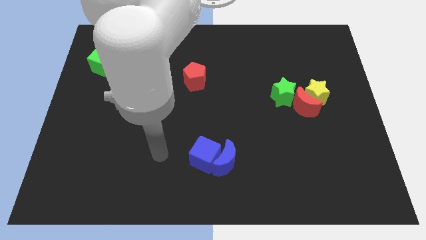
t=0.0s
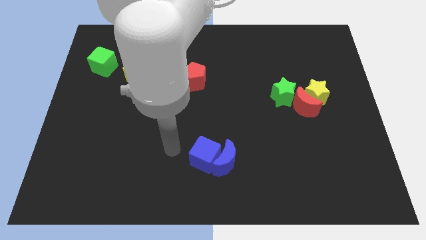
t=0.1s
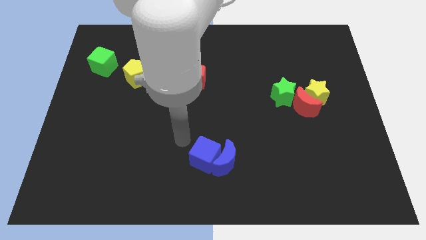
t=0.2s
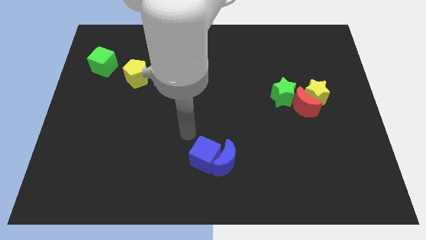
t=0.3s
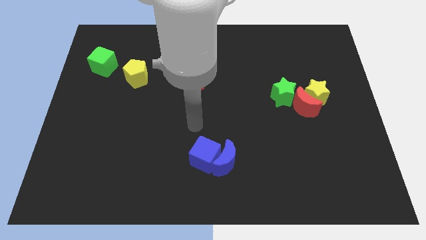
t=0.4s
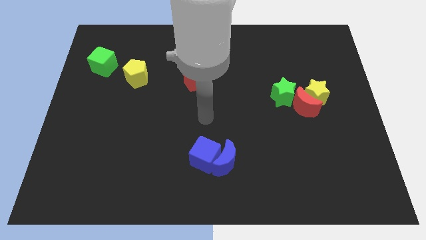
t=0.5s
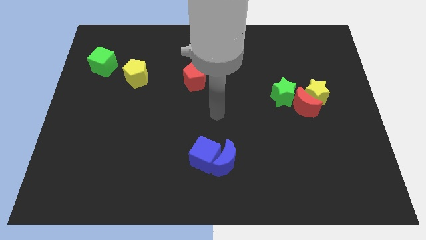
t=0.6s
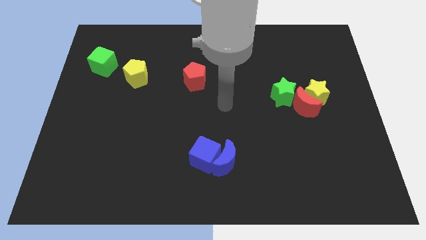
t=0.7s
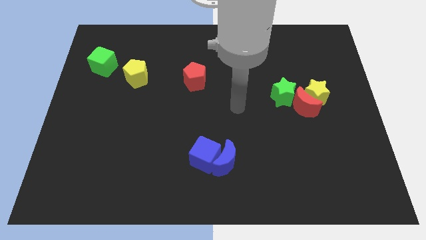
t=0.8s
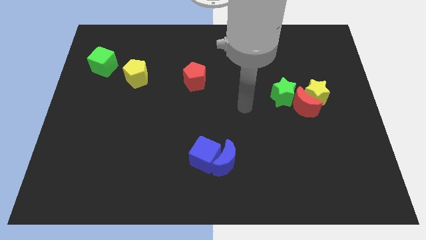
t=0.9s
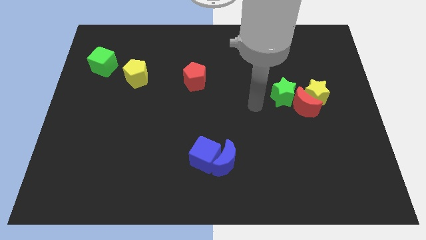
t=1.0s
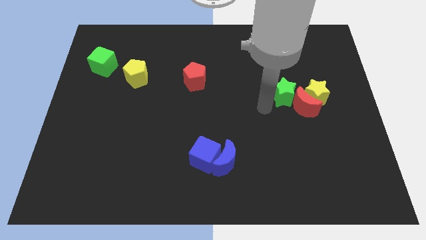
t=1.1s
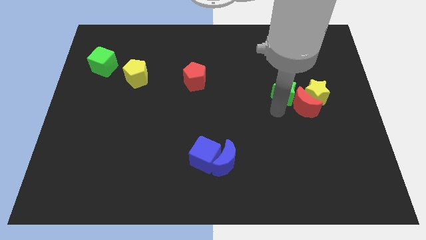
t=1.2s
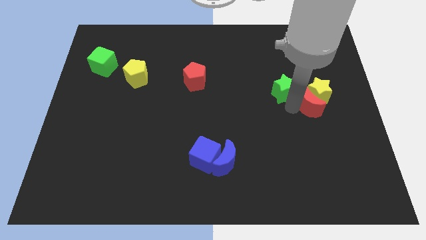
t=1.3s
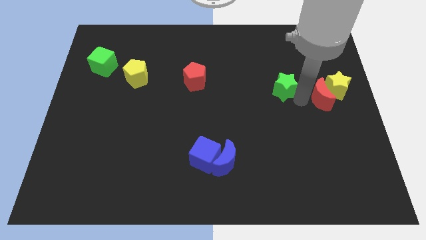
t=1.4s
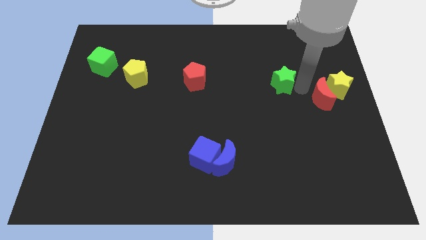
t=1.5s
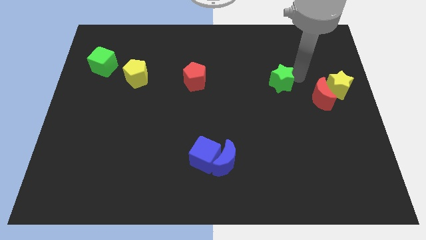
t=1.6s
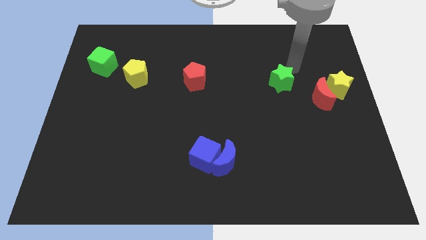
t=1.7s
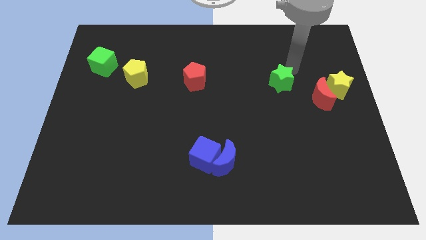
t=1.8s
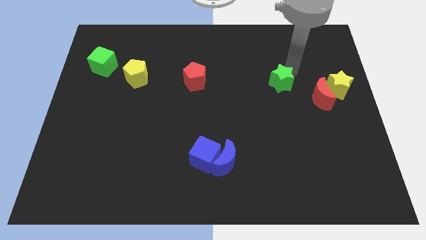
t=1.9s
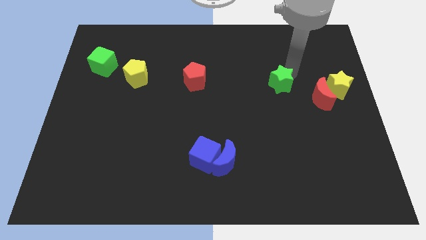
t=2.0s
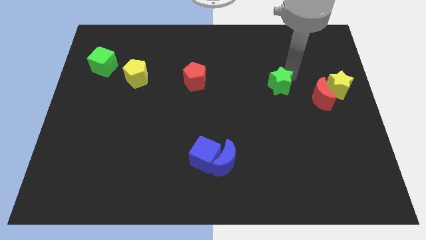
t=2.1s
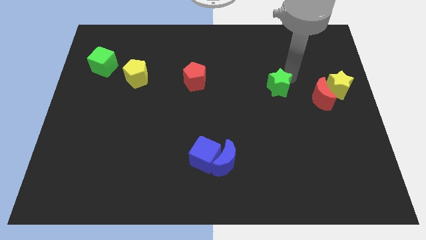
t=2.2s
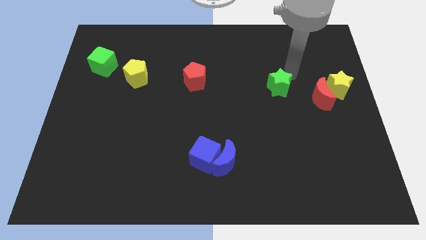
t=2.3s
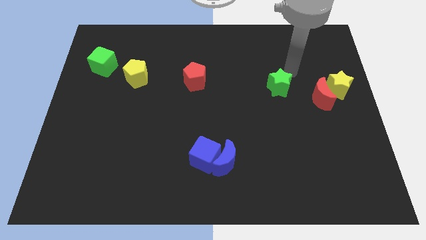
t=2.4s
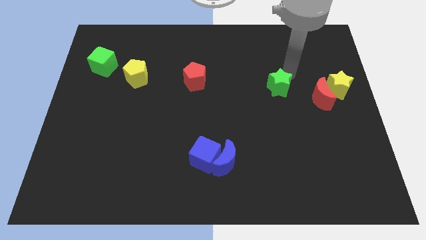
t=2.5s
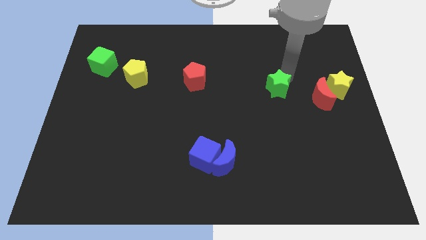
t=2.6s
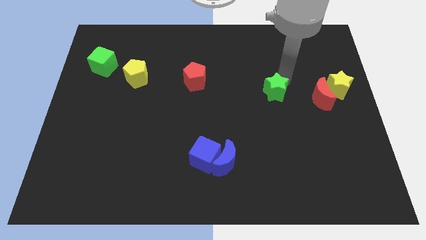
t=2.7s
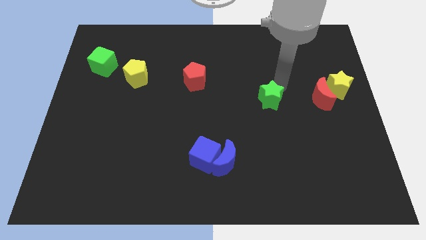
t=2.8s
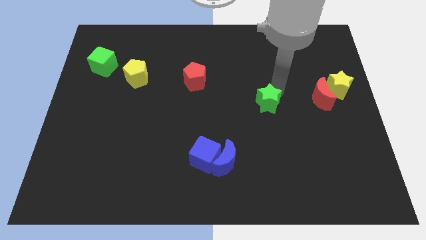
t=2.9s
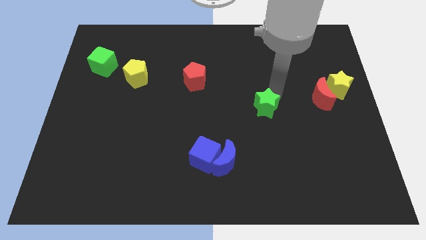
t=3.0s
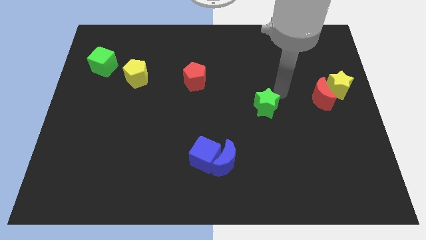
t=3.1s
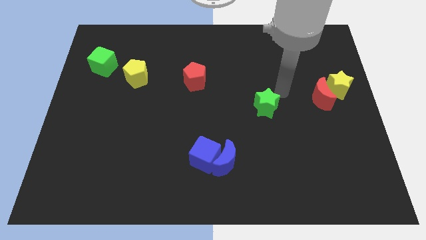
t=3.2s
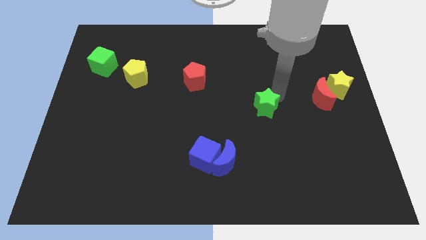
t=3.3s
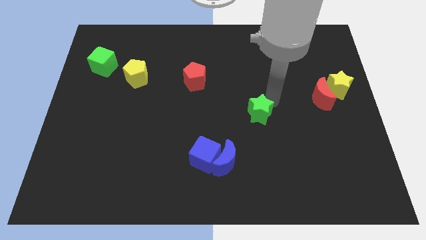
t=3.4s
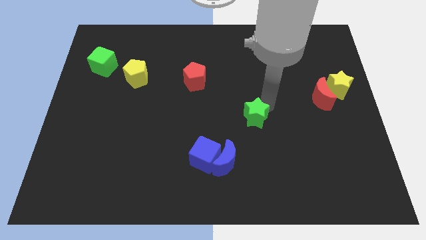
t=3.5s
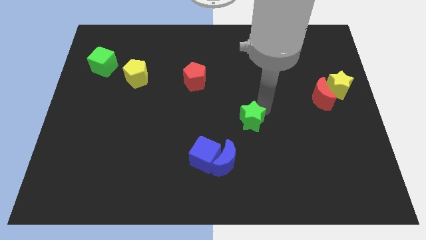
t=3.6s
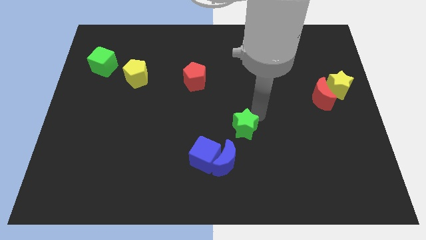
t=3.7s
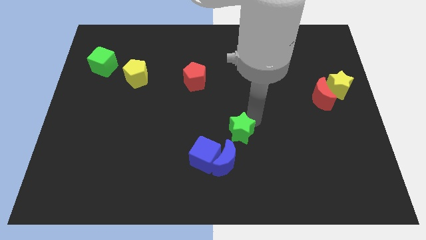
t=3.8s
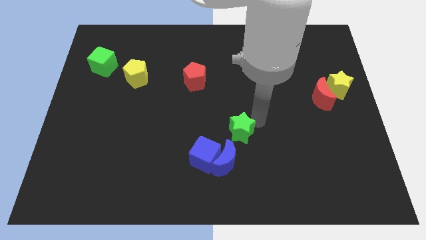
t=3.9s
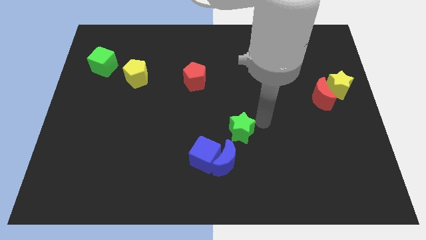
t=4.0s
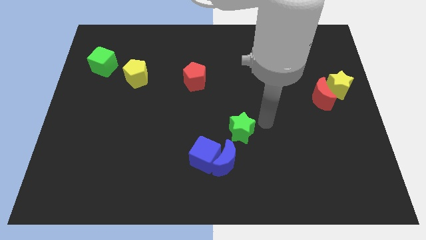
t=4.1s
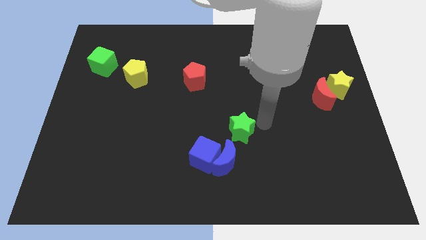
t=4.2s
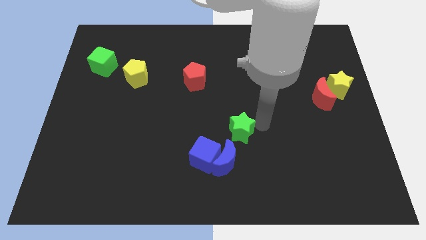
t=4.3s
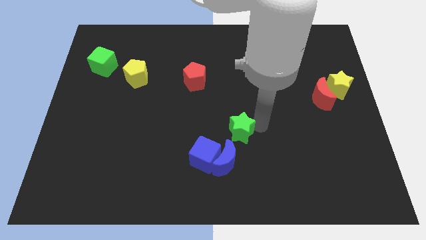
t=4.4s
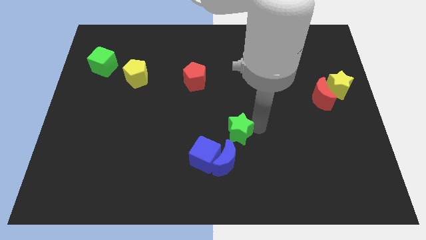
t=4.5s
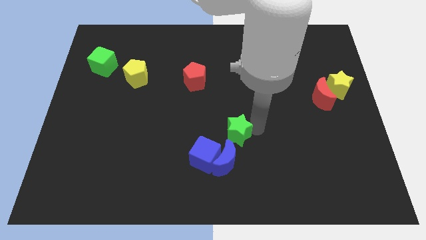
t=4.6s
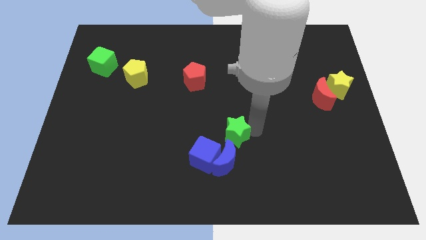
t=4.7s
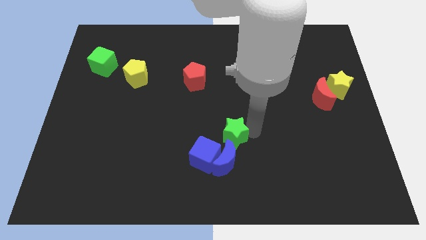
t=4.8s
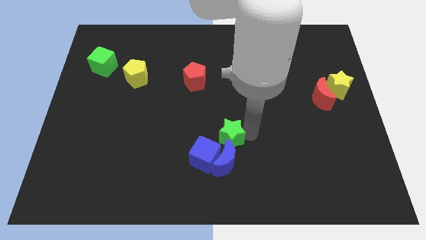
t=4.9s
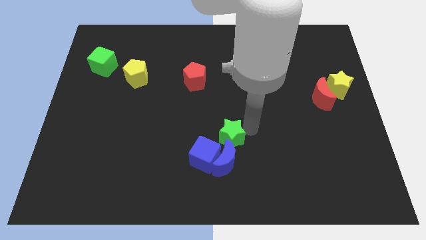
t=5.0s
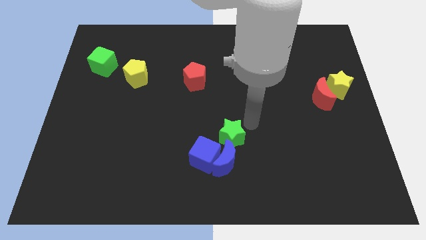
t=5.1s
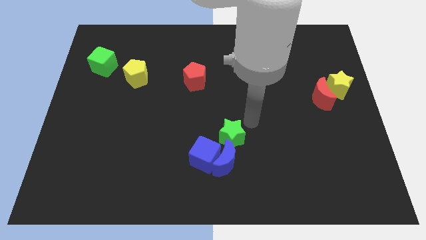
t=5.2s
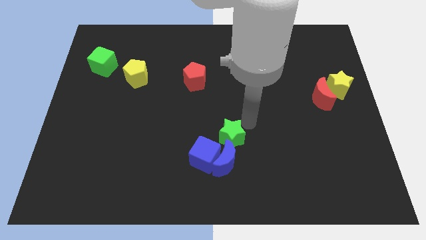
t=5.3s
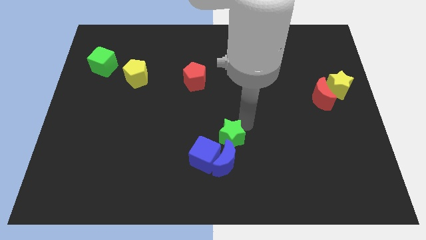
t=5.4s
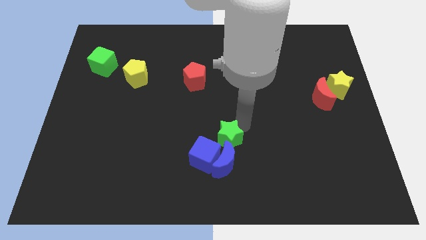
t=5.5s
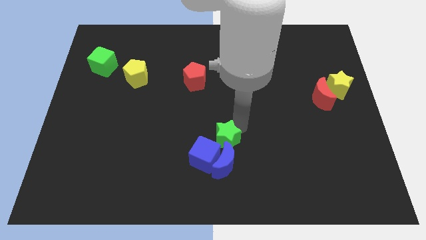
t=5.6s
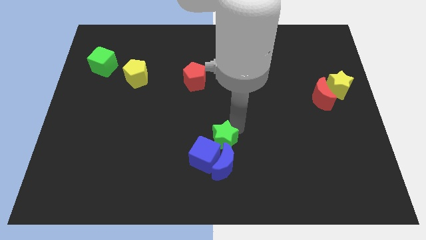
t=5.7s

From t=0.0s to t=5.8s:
slide the green star towards the blue cube
